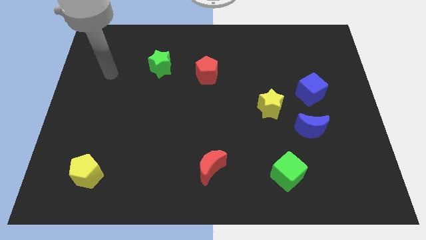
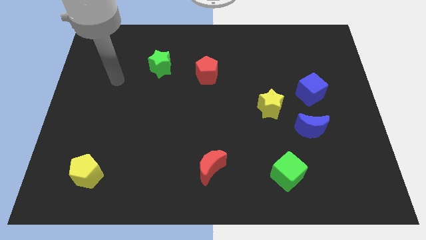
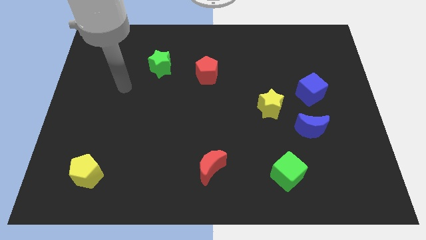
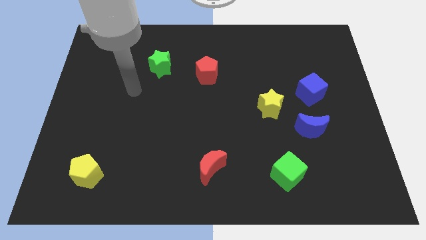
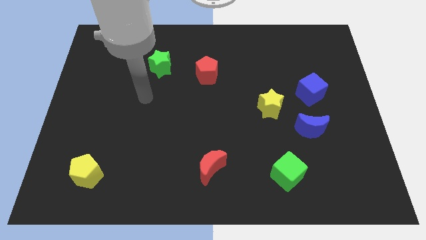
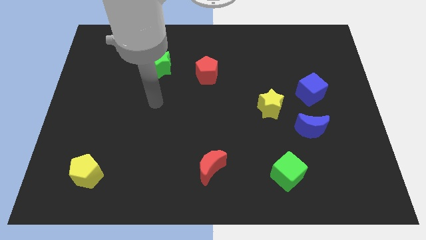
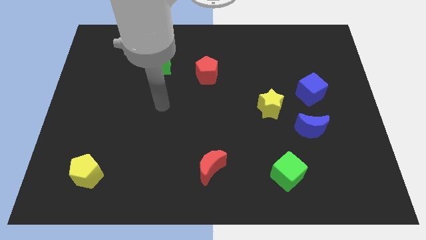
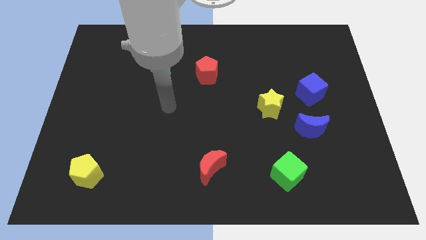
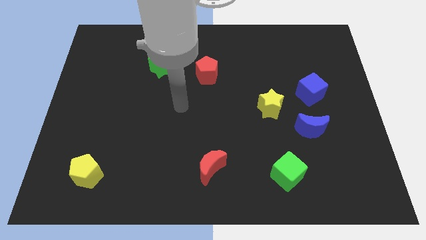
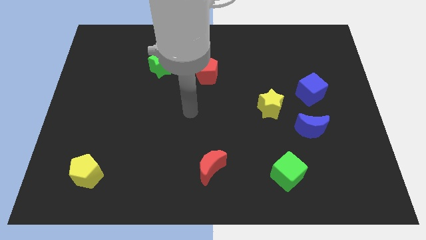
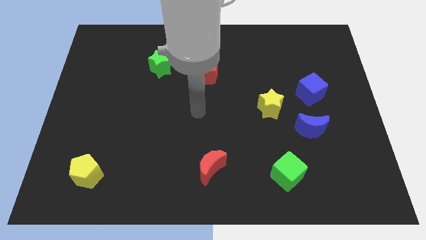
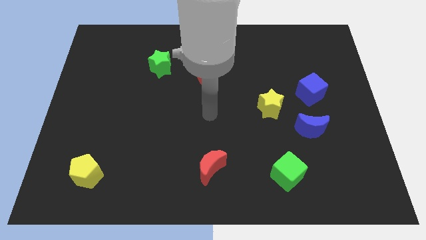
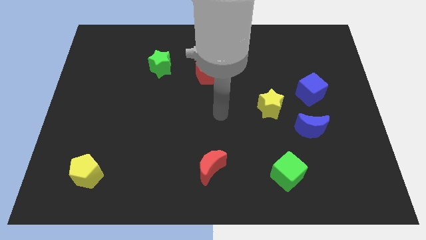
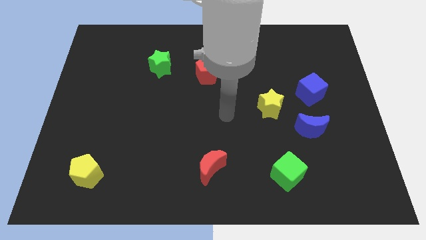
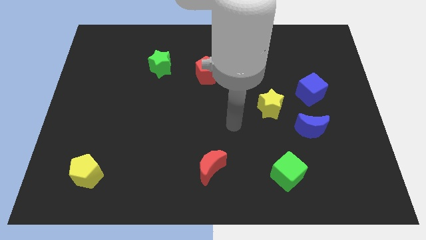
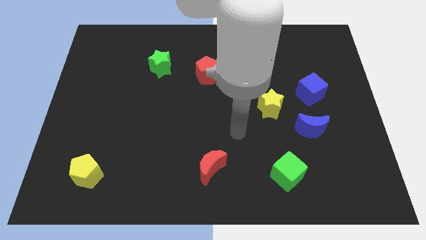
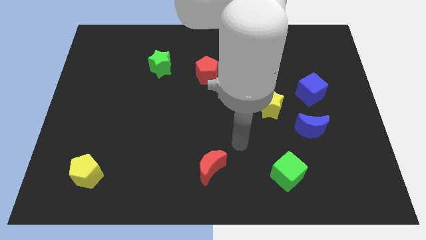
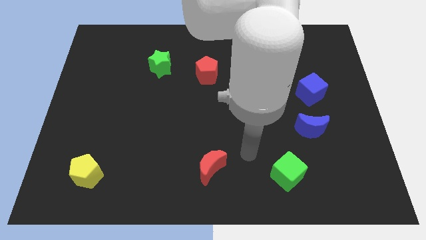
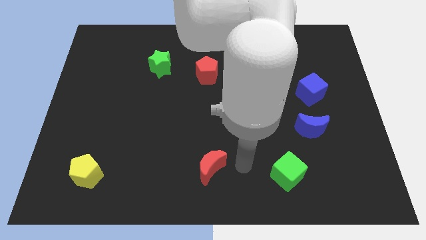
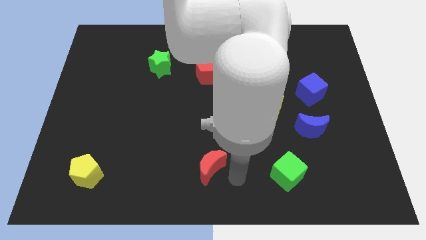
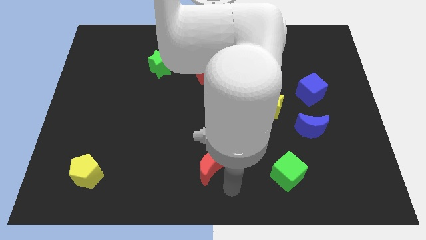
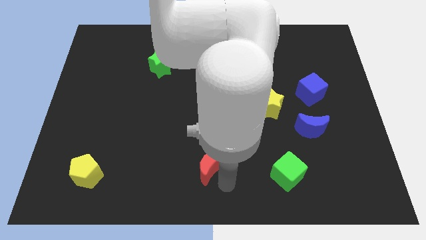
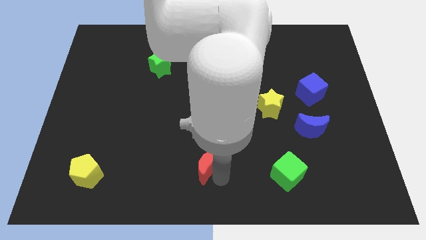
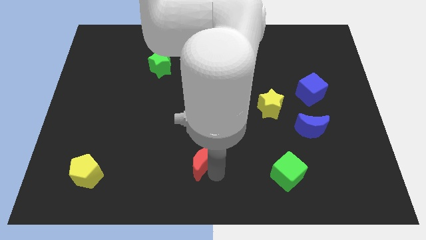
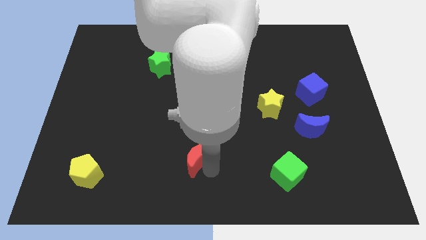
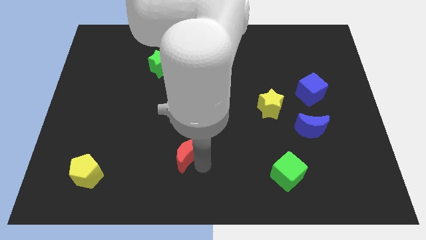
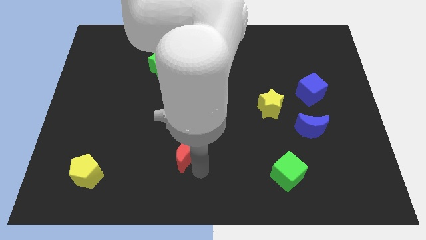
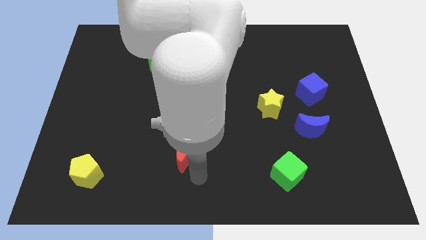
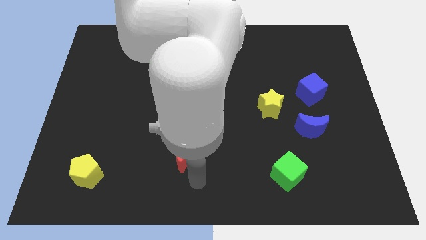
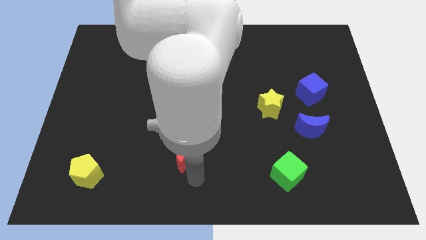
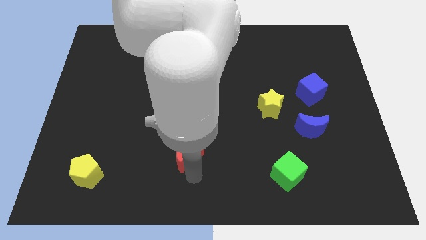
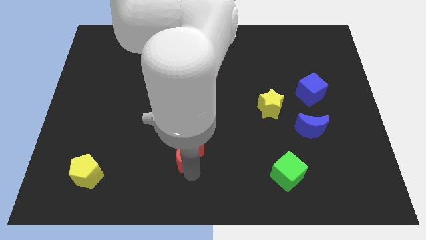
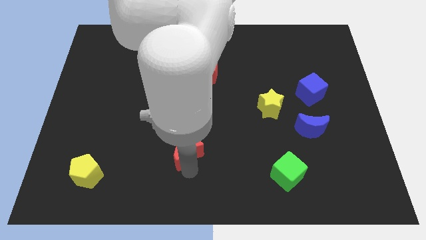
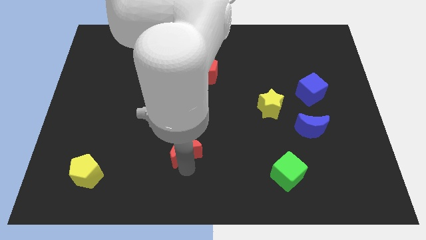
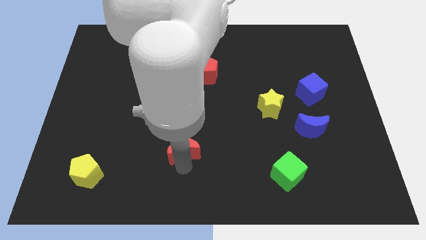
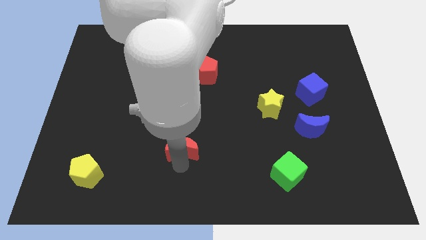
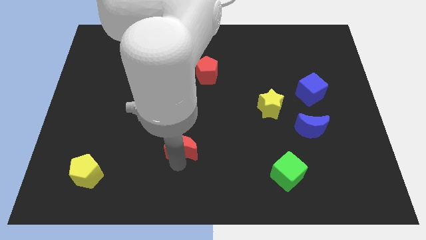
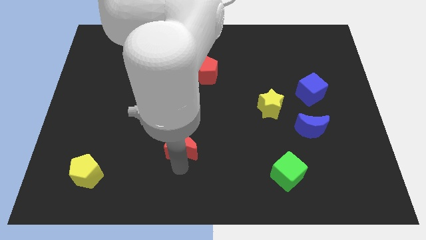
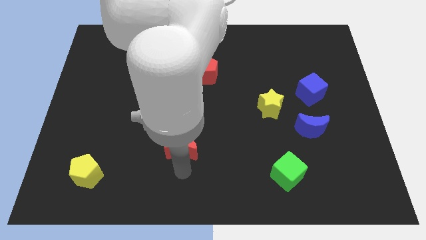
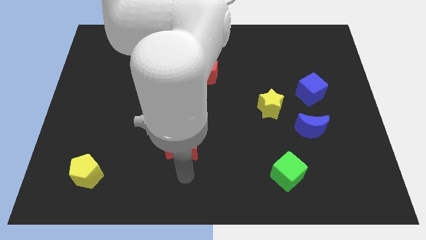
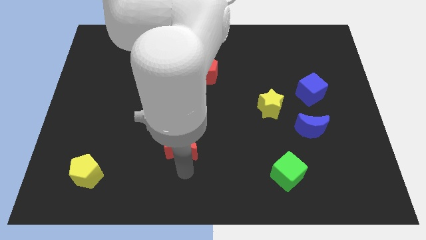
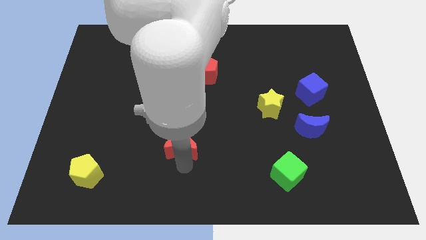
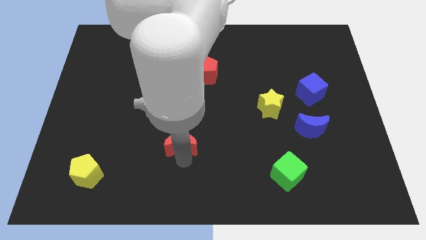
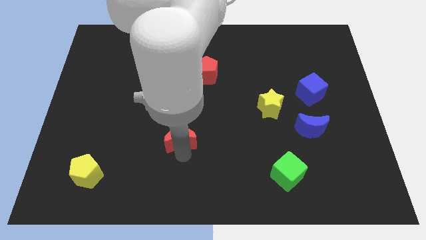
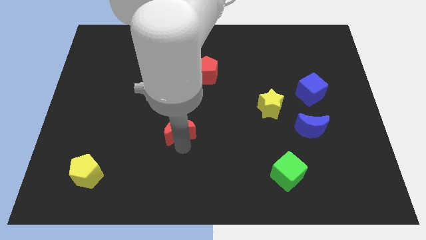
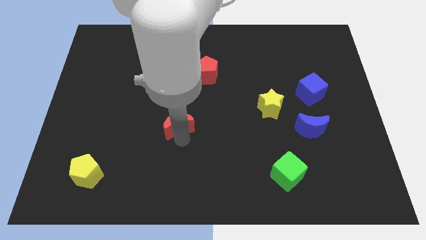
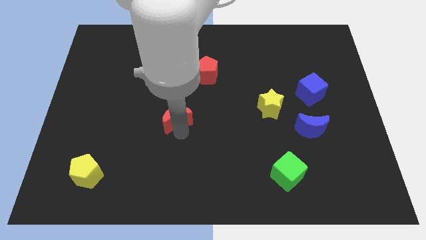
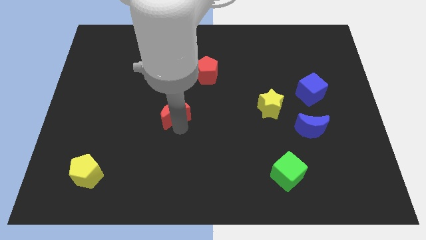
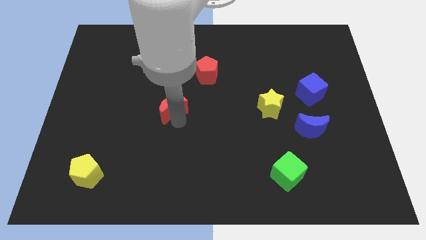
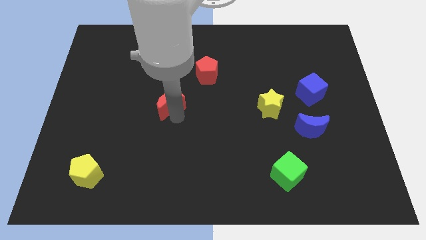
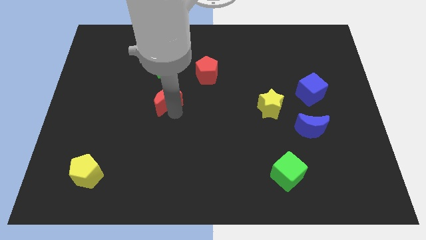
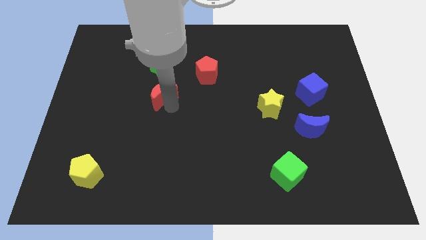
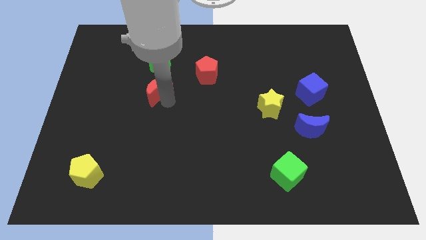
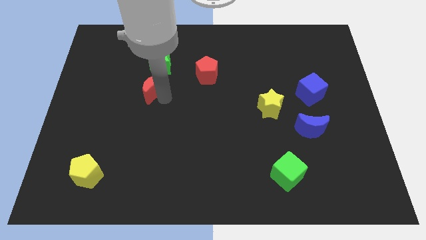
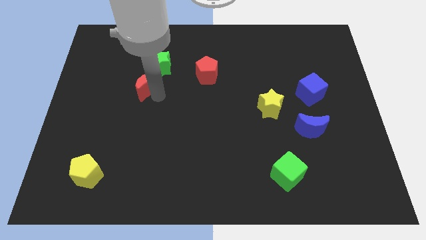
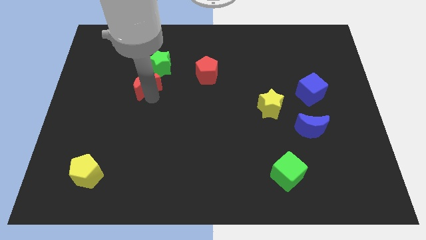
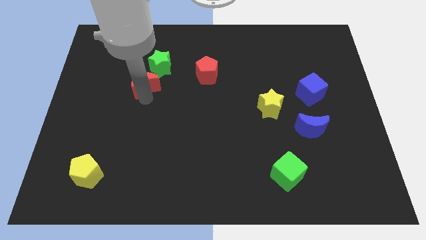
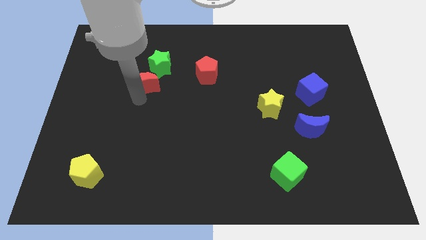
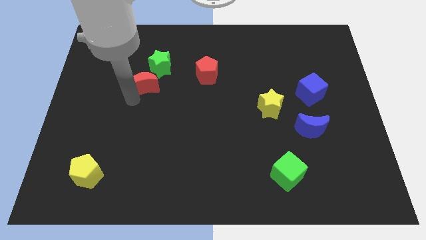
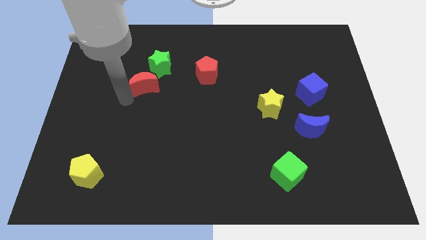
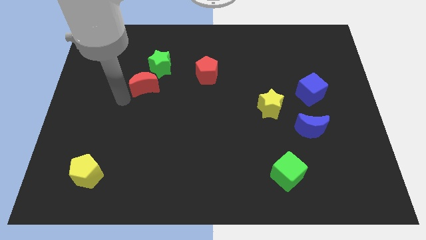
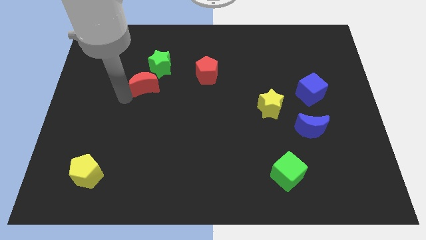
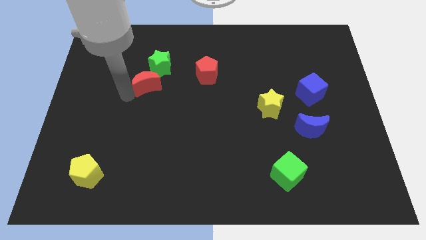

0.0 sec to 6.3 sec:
push the red moon just left of the red pentagon

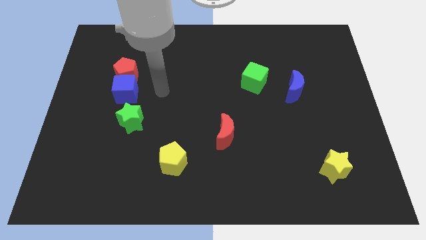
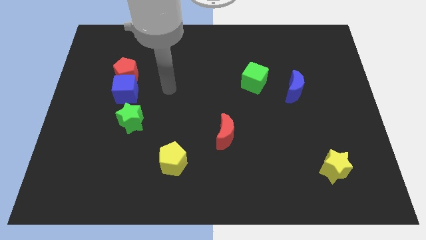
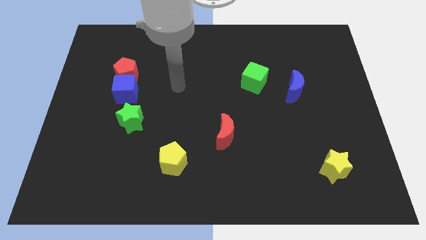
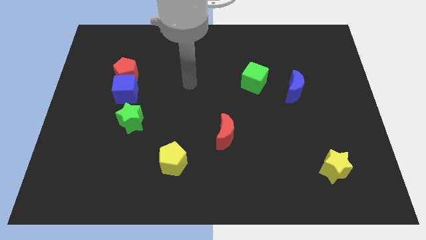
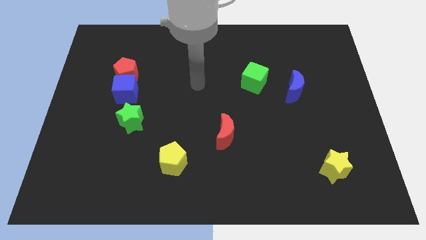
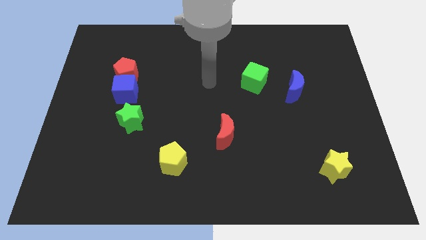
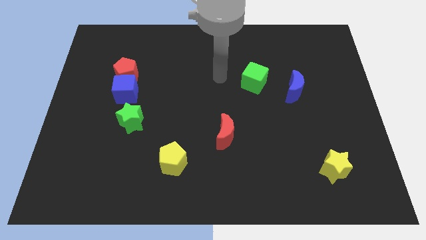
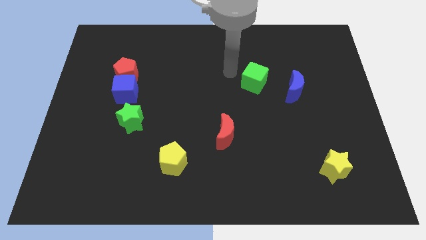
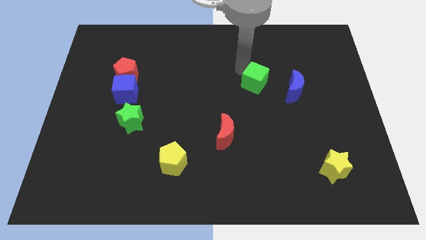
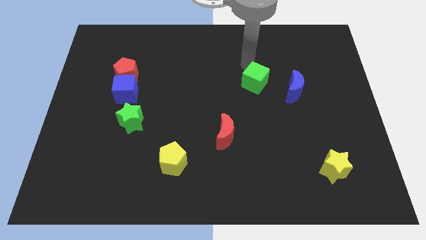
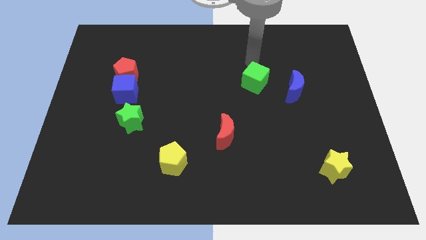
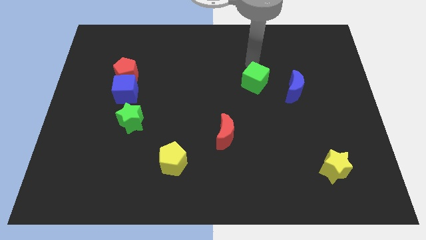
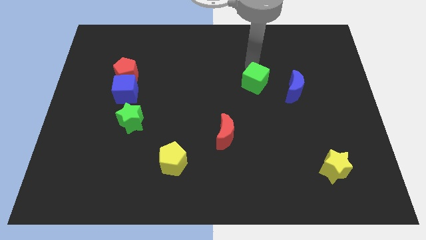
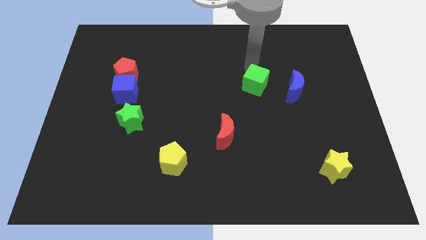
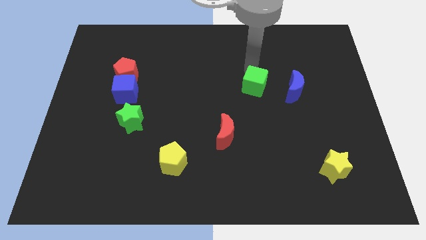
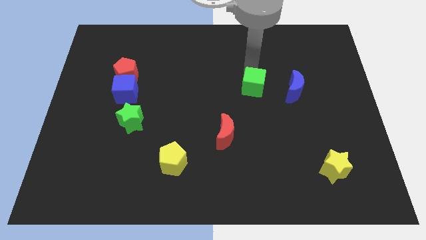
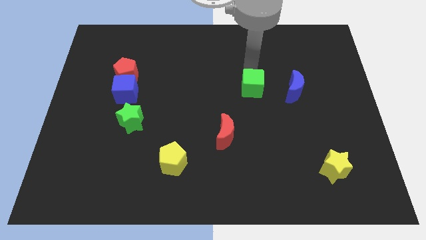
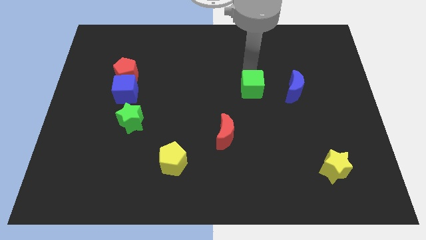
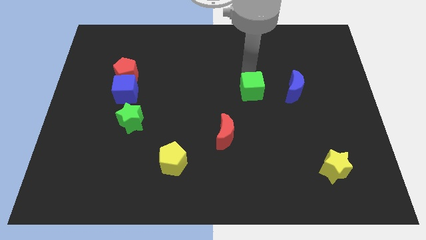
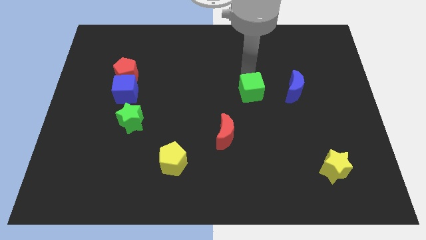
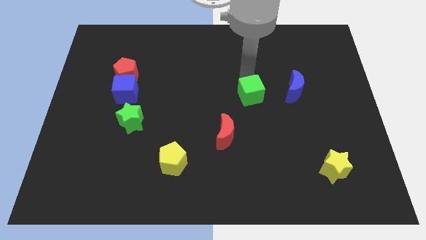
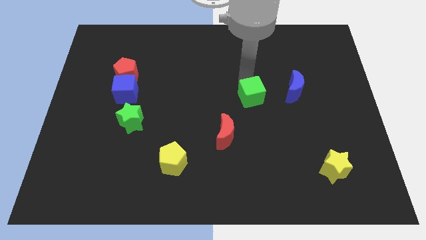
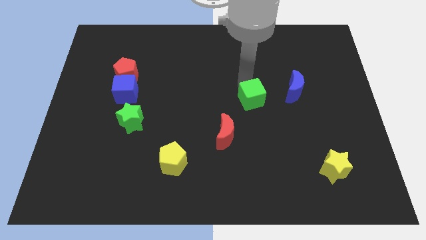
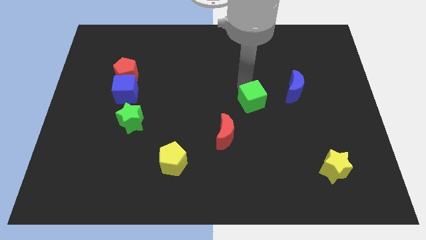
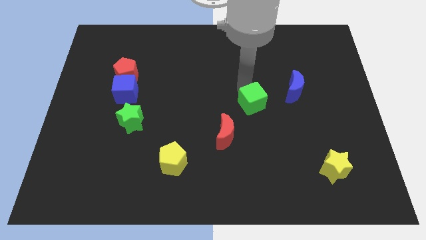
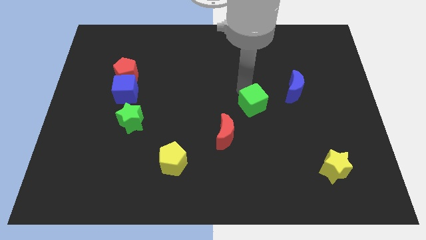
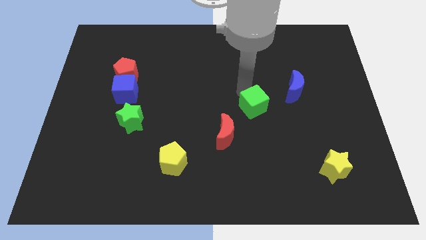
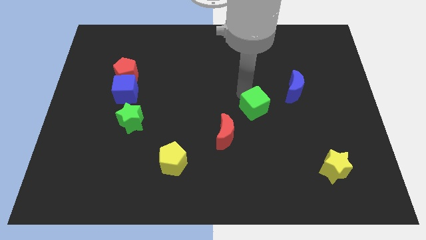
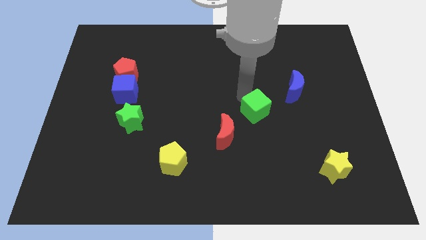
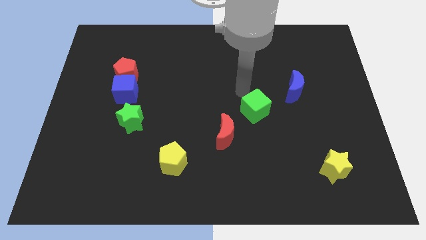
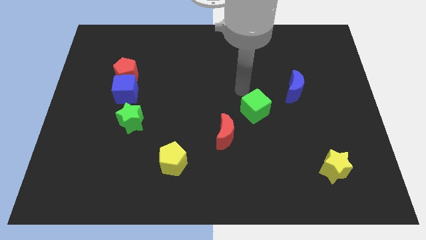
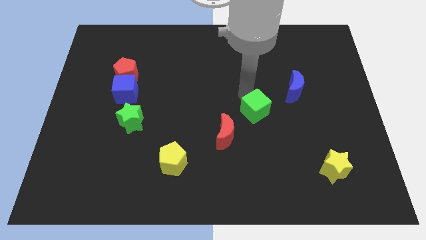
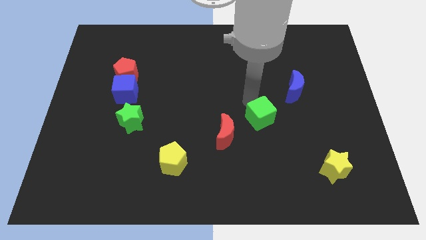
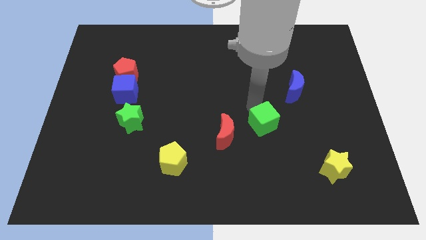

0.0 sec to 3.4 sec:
move the green cube just right of the red moon
